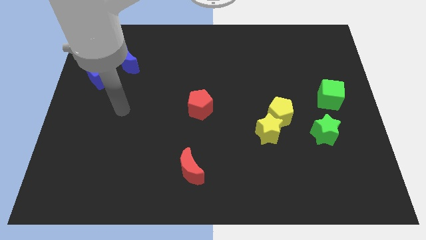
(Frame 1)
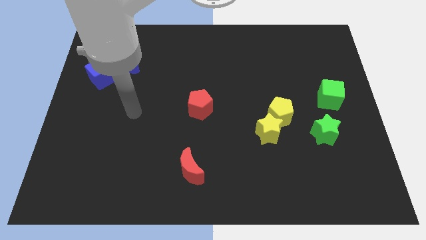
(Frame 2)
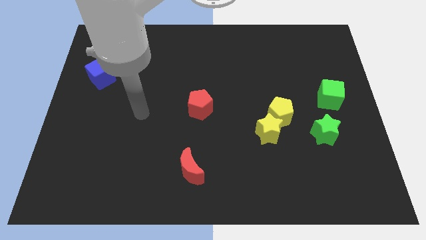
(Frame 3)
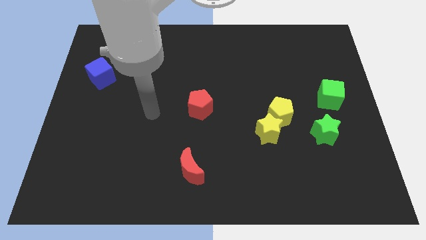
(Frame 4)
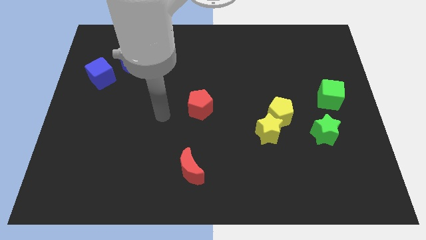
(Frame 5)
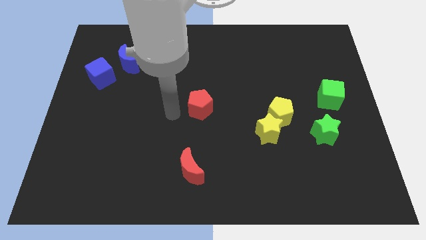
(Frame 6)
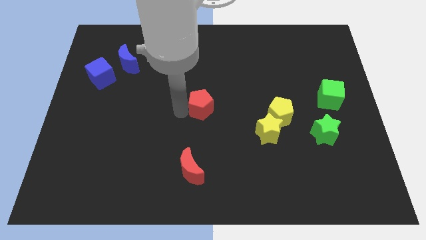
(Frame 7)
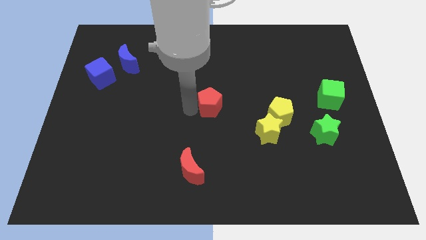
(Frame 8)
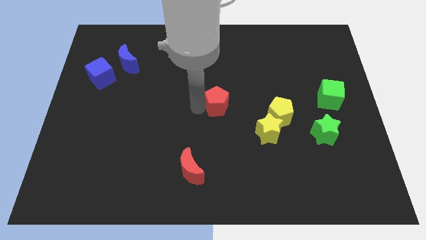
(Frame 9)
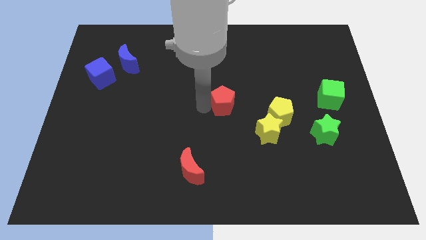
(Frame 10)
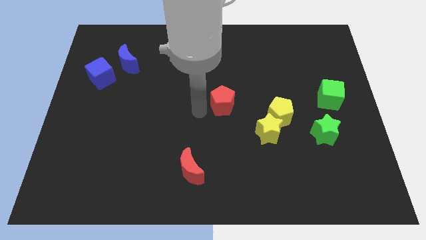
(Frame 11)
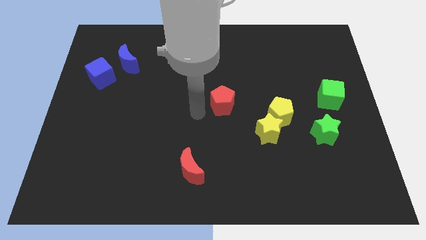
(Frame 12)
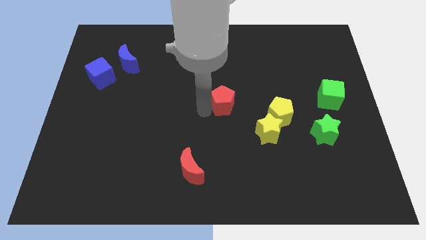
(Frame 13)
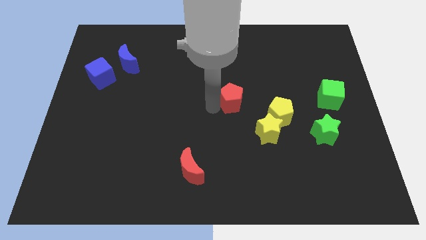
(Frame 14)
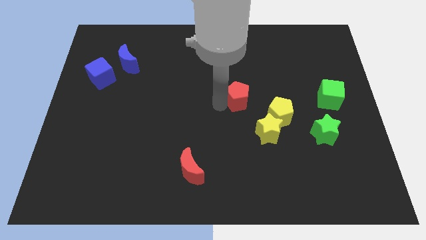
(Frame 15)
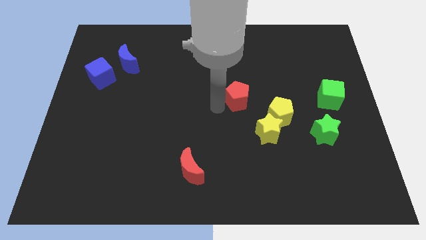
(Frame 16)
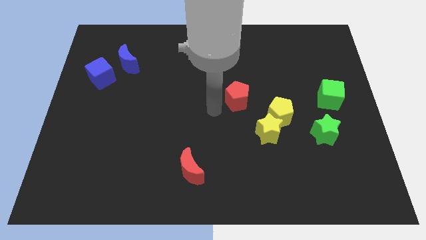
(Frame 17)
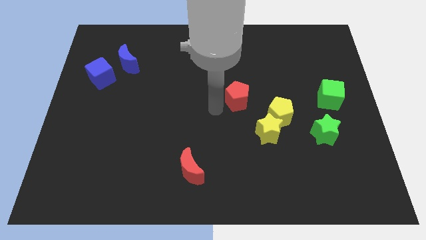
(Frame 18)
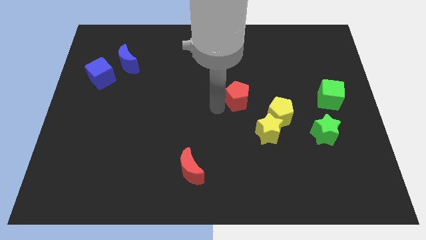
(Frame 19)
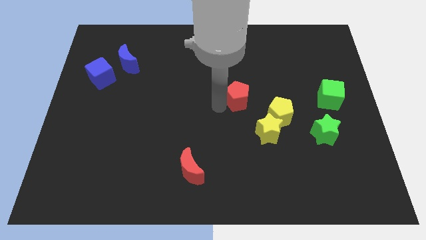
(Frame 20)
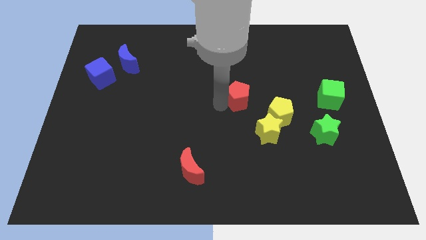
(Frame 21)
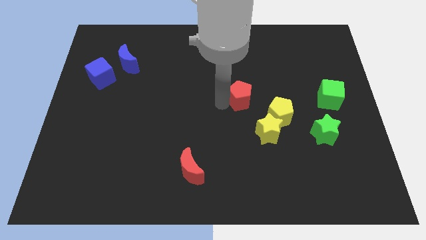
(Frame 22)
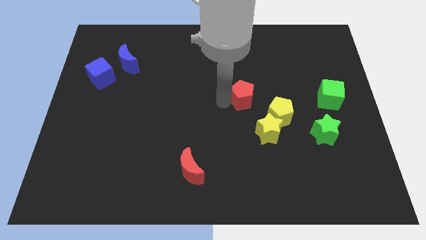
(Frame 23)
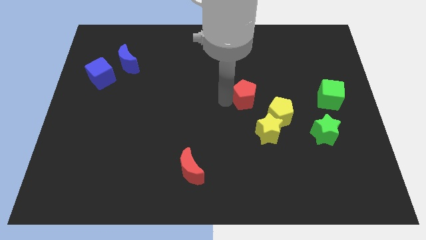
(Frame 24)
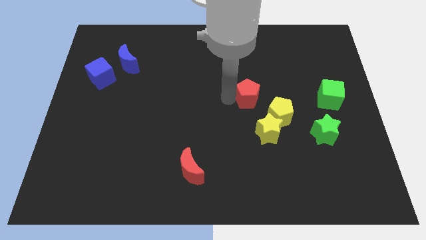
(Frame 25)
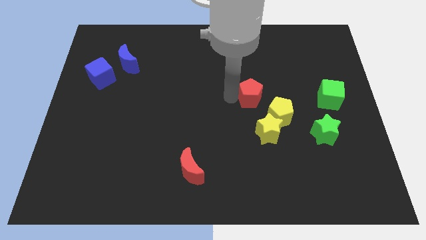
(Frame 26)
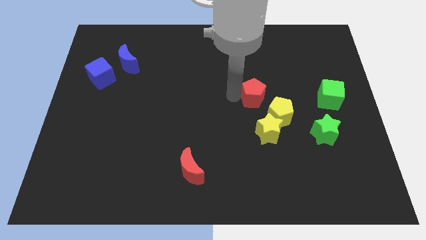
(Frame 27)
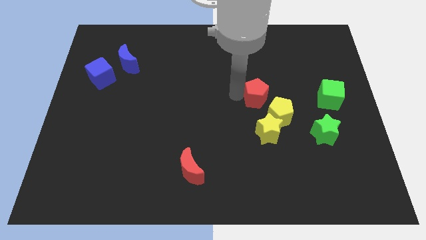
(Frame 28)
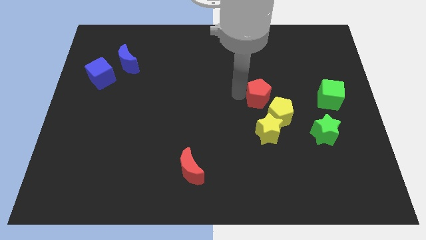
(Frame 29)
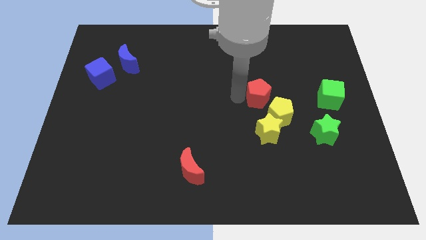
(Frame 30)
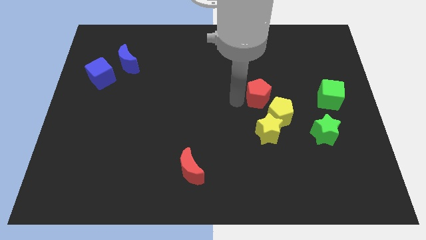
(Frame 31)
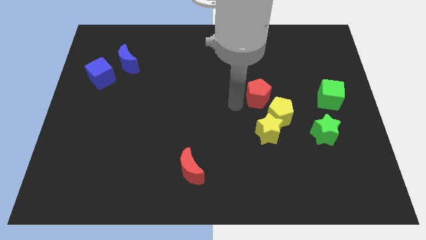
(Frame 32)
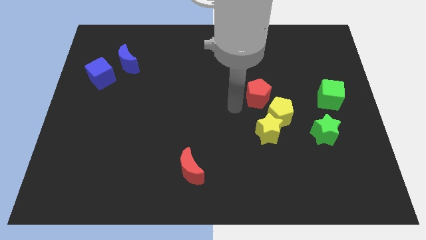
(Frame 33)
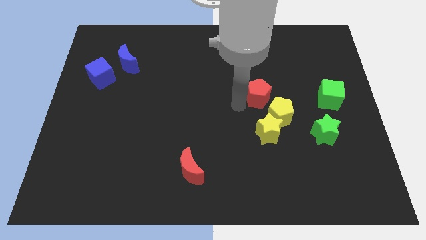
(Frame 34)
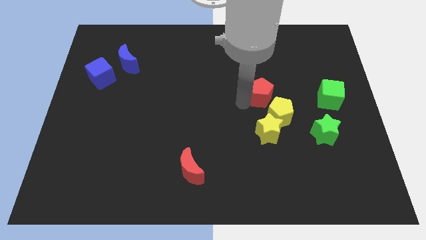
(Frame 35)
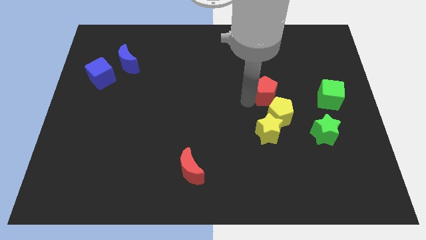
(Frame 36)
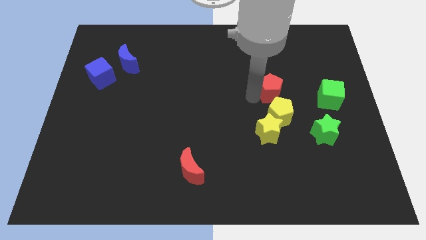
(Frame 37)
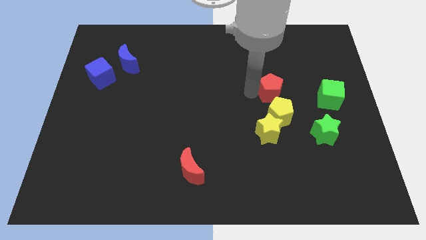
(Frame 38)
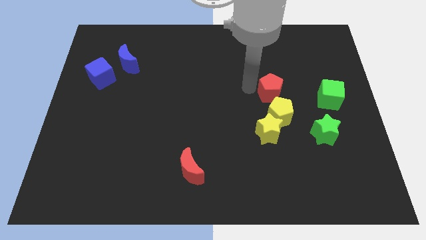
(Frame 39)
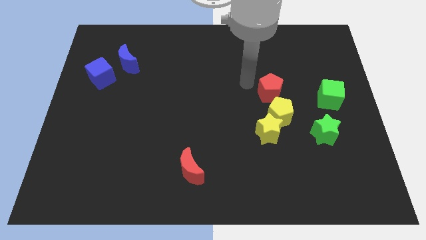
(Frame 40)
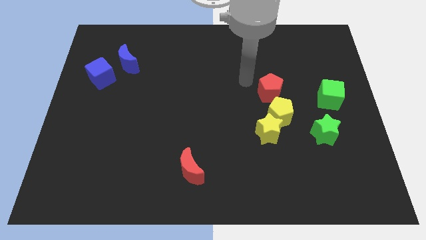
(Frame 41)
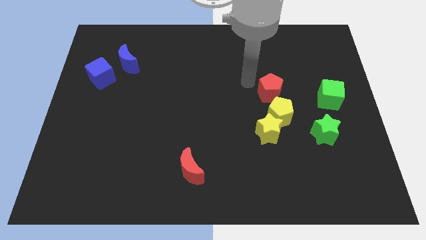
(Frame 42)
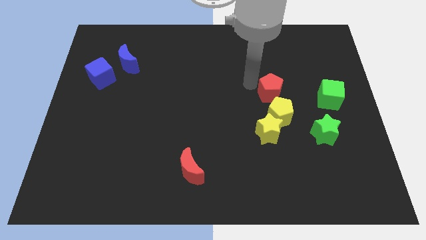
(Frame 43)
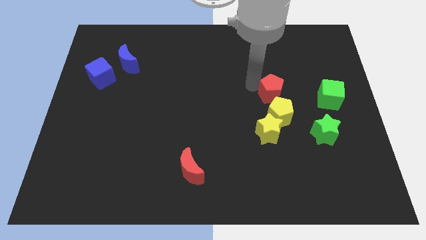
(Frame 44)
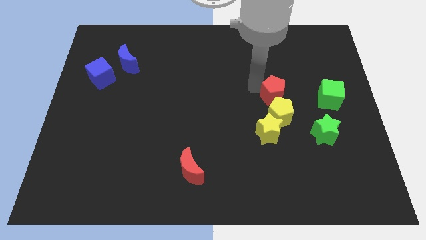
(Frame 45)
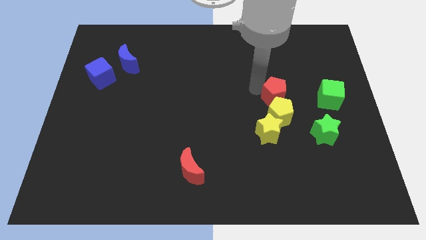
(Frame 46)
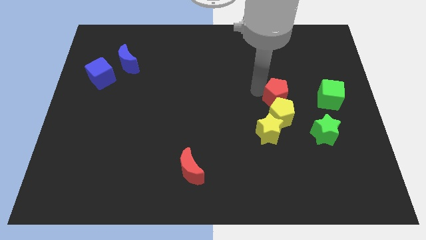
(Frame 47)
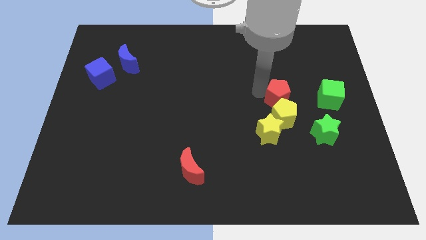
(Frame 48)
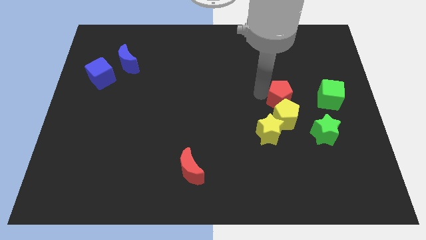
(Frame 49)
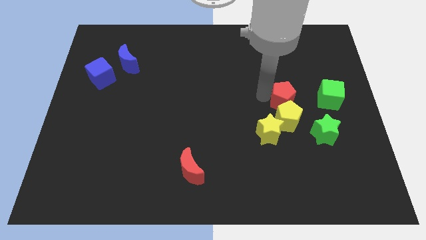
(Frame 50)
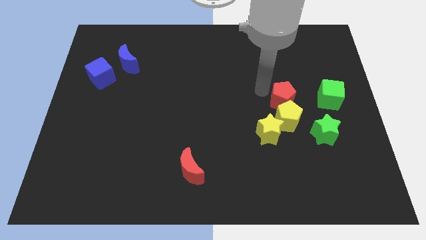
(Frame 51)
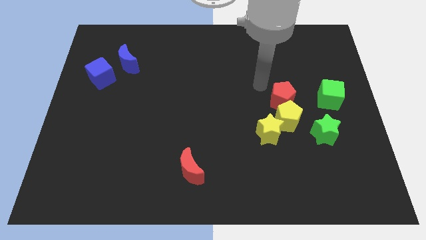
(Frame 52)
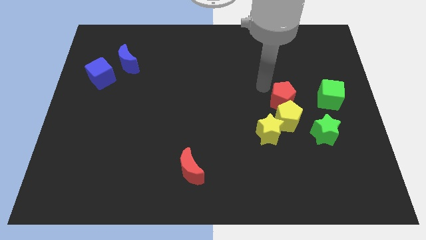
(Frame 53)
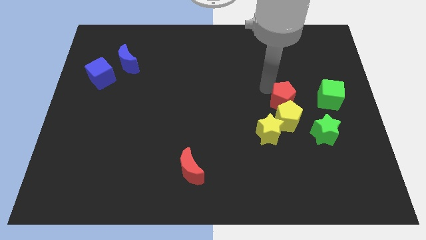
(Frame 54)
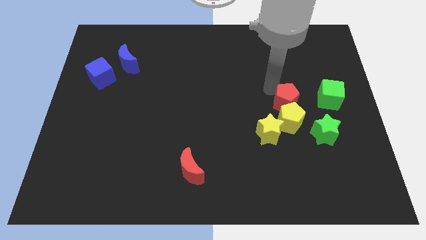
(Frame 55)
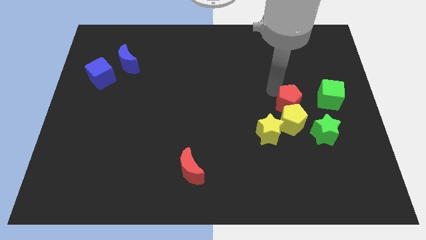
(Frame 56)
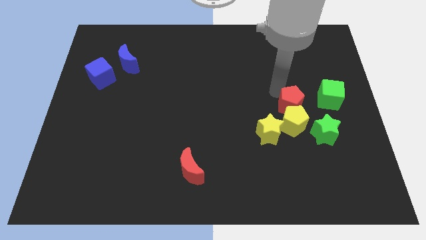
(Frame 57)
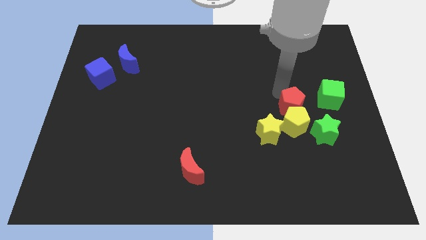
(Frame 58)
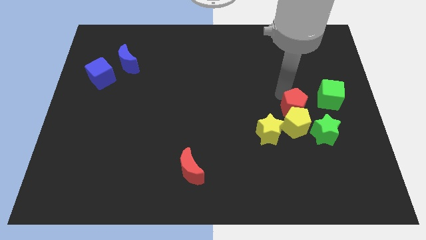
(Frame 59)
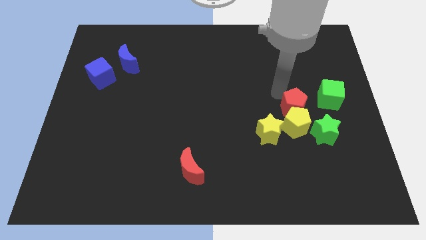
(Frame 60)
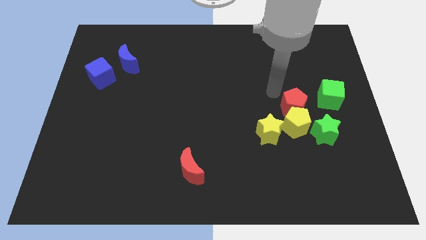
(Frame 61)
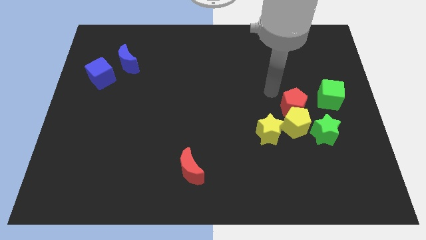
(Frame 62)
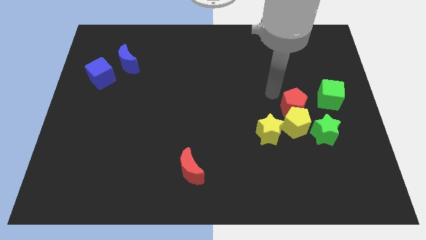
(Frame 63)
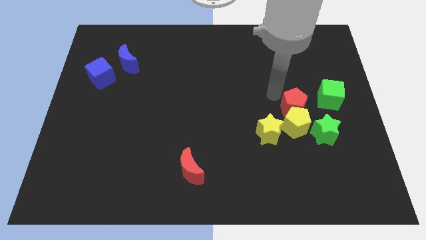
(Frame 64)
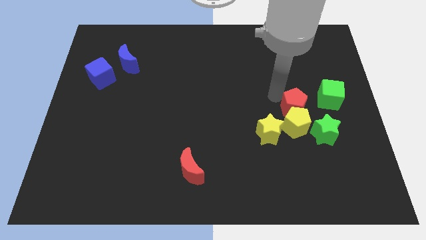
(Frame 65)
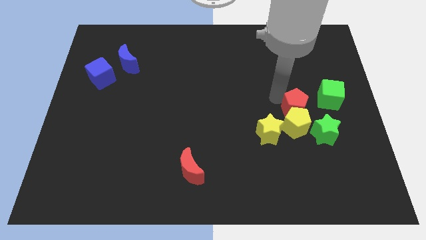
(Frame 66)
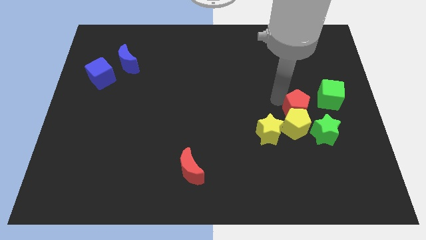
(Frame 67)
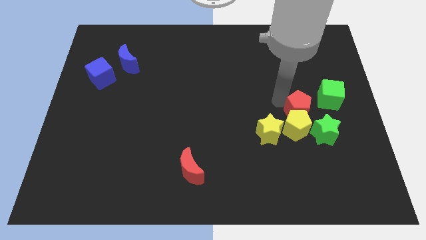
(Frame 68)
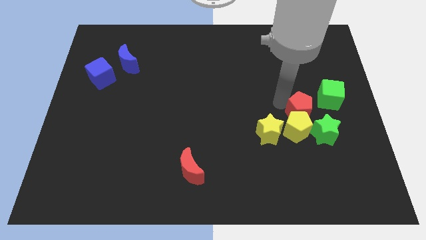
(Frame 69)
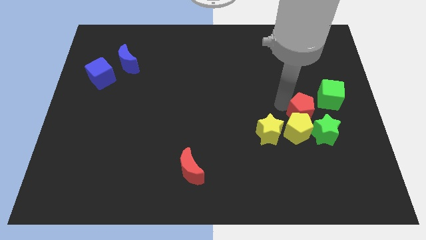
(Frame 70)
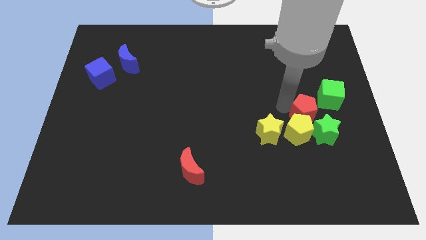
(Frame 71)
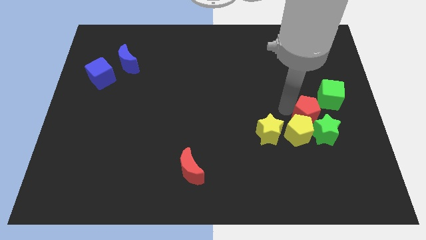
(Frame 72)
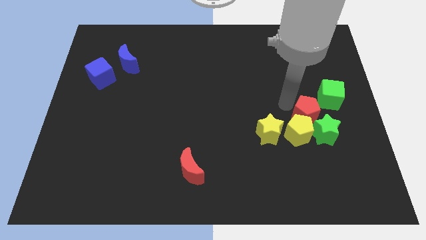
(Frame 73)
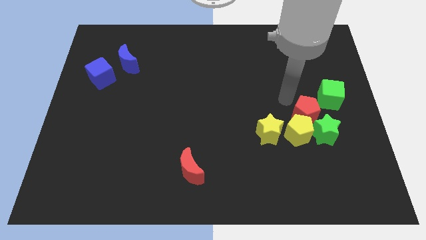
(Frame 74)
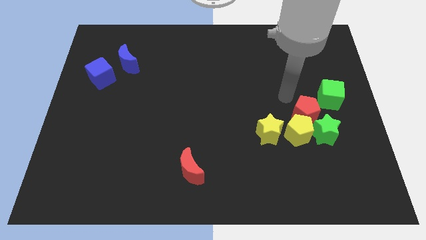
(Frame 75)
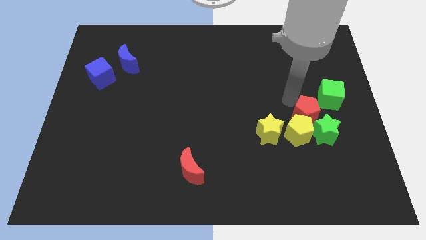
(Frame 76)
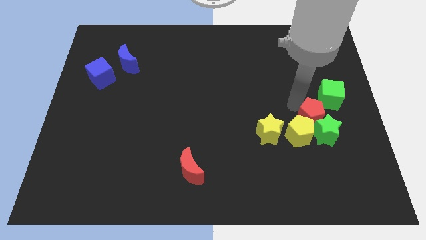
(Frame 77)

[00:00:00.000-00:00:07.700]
push the red pentagon close to the green star

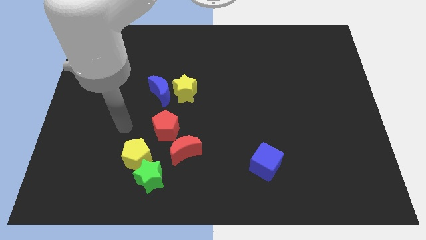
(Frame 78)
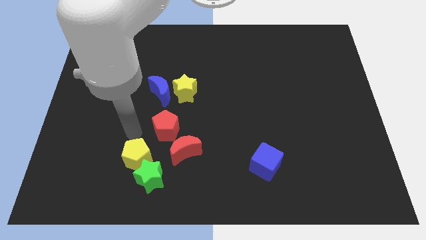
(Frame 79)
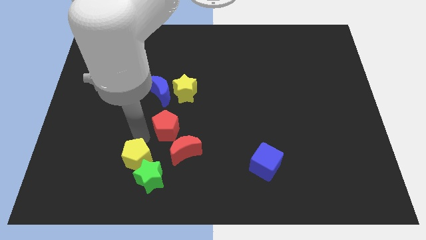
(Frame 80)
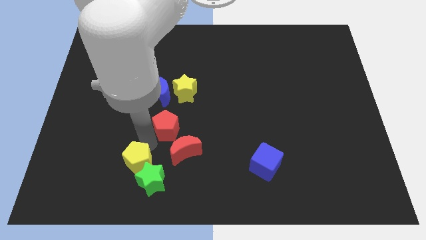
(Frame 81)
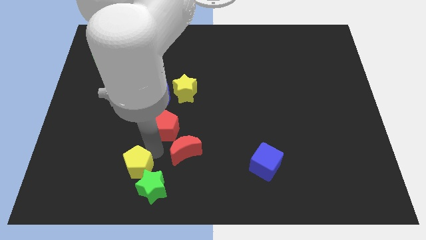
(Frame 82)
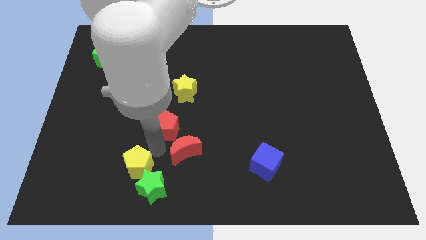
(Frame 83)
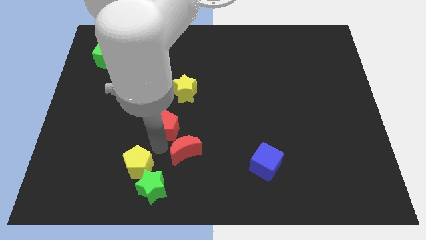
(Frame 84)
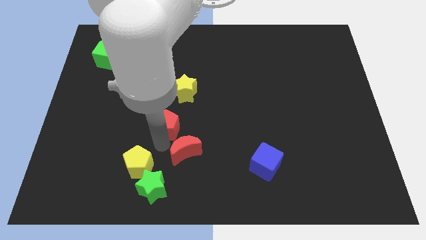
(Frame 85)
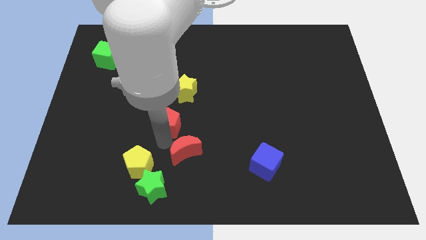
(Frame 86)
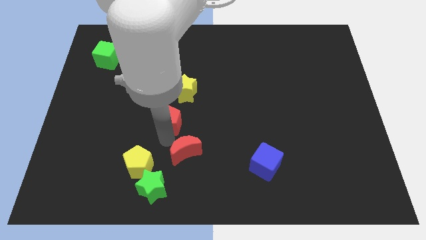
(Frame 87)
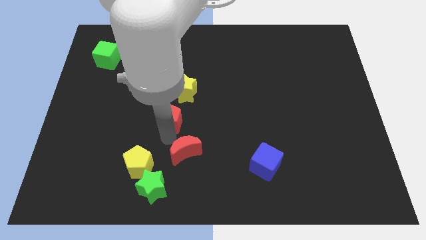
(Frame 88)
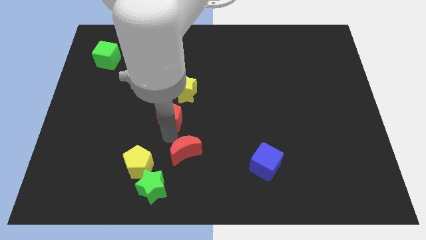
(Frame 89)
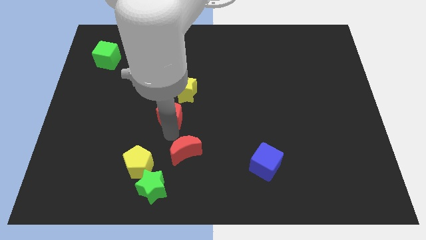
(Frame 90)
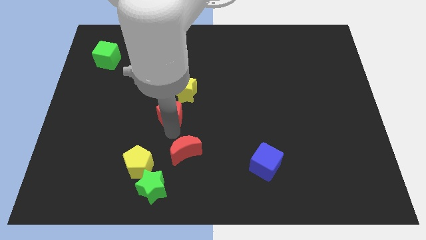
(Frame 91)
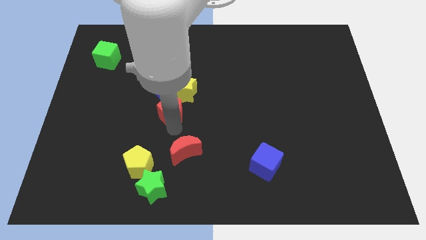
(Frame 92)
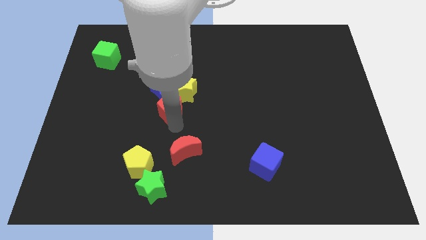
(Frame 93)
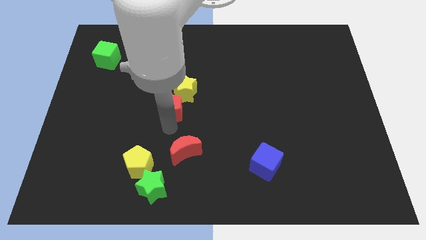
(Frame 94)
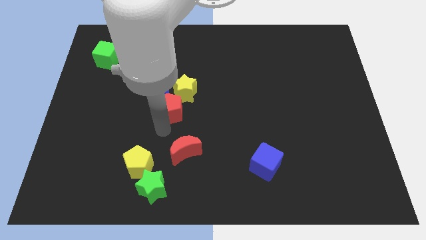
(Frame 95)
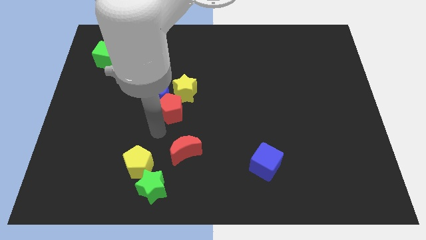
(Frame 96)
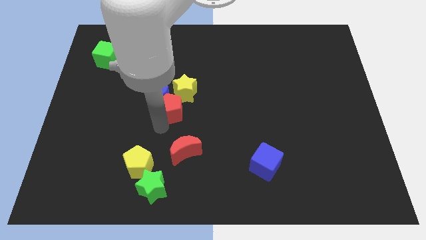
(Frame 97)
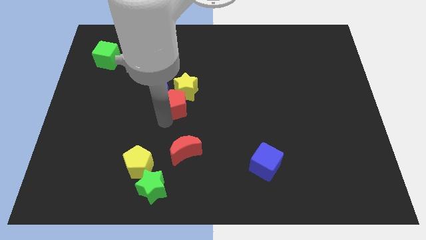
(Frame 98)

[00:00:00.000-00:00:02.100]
put the red pentagon to the yellow star
